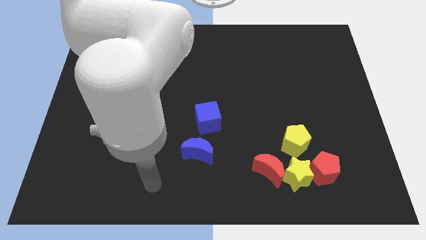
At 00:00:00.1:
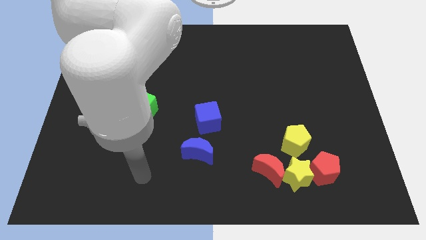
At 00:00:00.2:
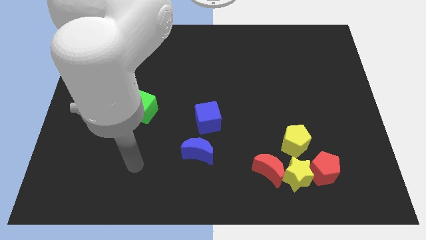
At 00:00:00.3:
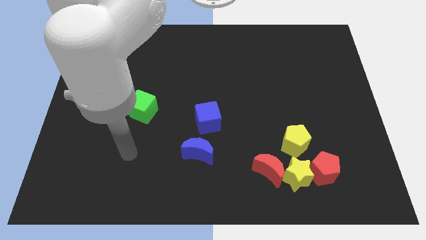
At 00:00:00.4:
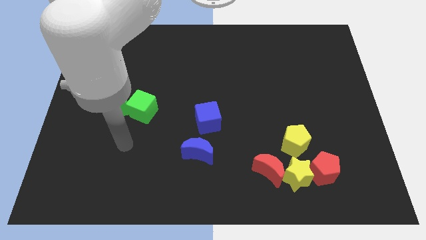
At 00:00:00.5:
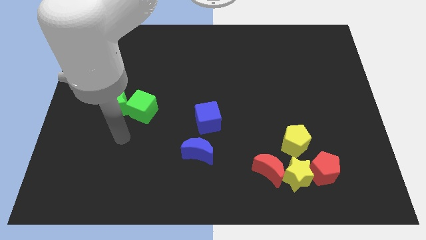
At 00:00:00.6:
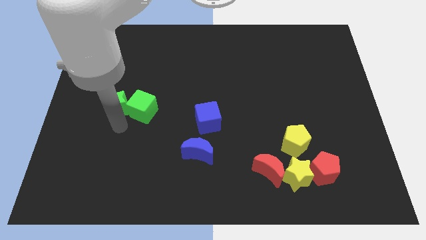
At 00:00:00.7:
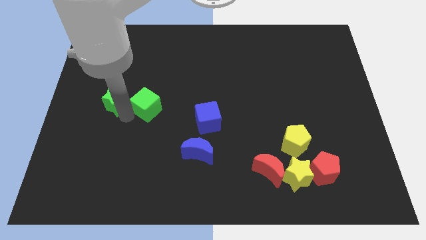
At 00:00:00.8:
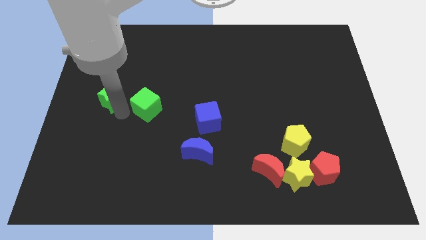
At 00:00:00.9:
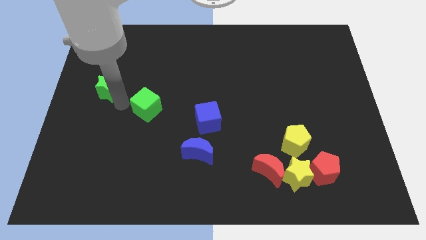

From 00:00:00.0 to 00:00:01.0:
separate the green cube from the green star

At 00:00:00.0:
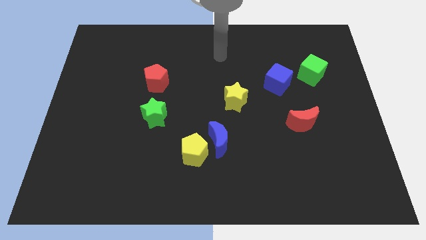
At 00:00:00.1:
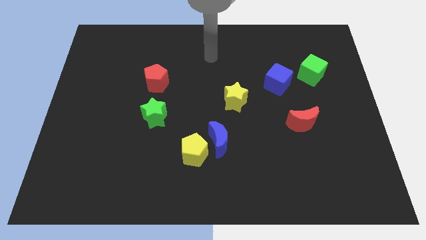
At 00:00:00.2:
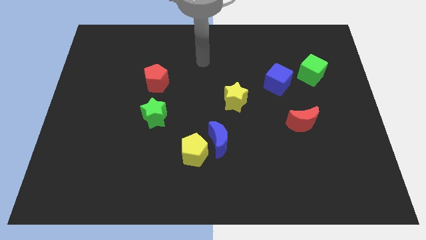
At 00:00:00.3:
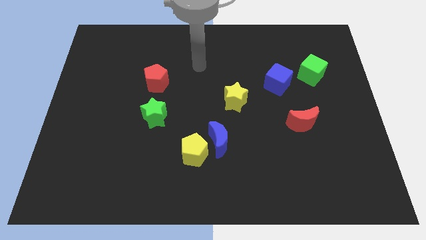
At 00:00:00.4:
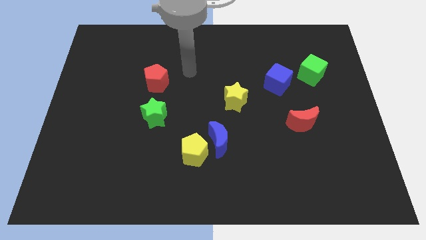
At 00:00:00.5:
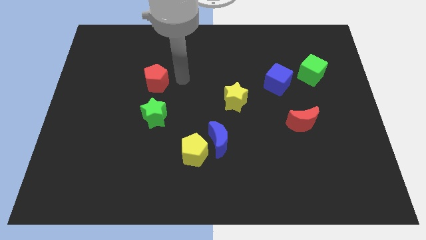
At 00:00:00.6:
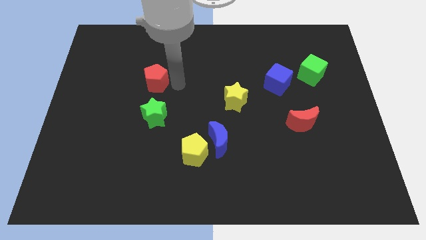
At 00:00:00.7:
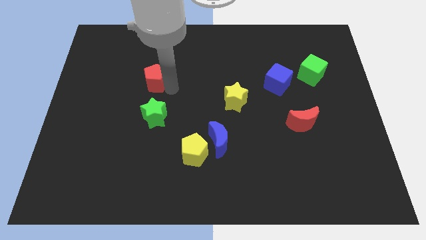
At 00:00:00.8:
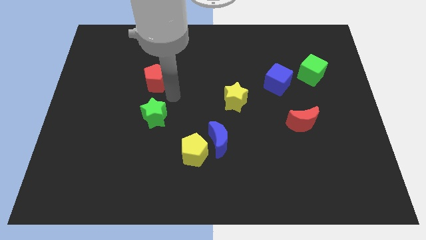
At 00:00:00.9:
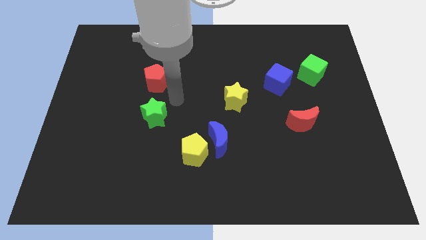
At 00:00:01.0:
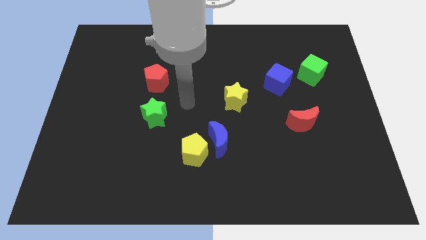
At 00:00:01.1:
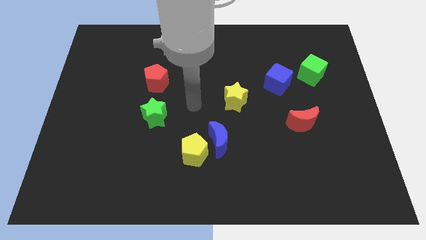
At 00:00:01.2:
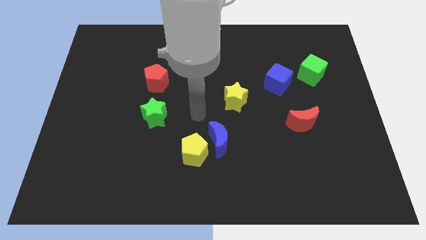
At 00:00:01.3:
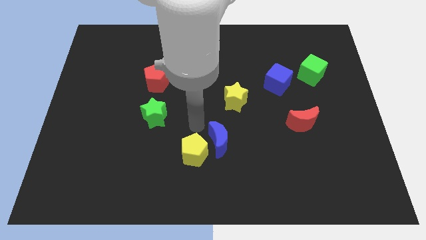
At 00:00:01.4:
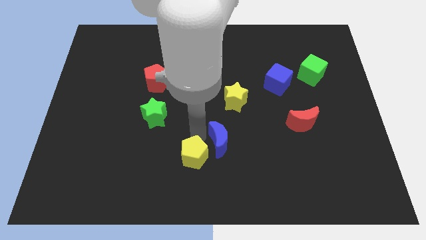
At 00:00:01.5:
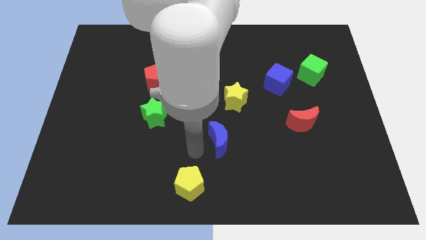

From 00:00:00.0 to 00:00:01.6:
pull the blue moon apart from the yellow pentagon

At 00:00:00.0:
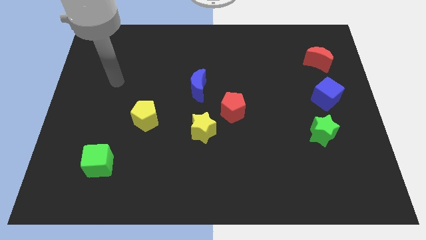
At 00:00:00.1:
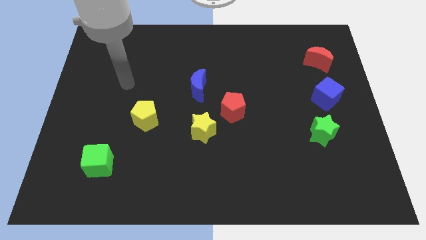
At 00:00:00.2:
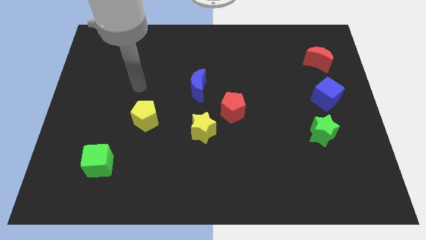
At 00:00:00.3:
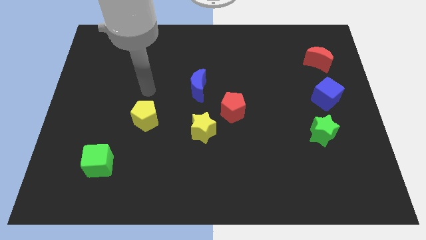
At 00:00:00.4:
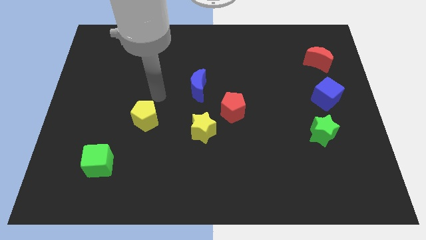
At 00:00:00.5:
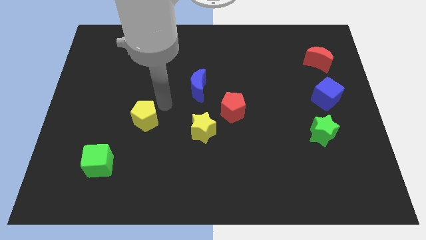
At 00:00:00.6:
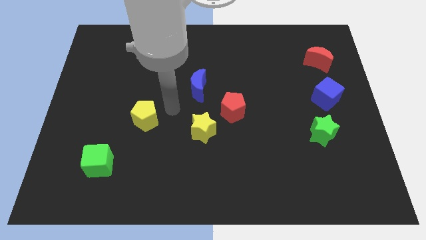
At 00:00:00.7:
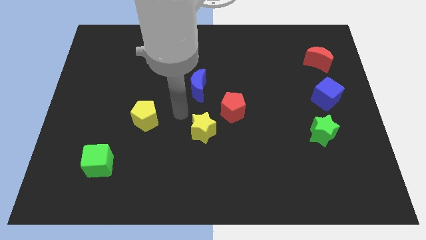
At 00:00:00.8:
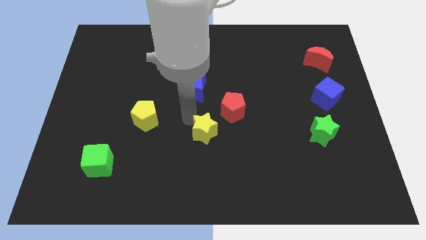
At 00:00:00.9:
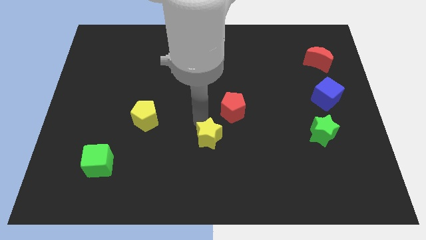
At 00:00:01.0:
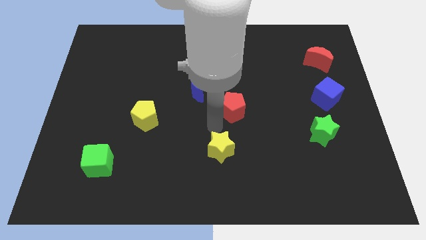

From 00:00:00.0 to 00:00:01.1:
move the red pentagon away from the yellow star

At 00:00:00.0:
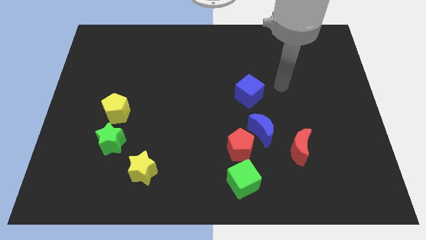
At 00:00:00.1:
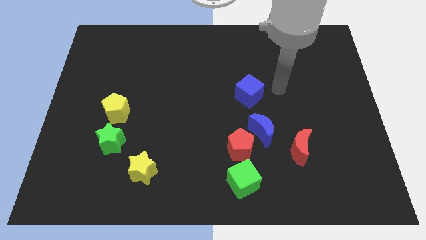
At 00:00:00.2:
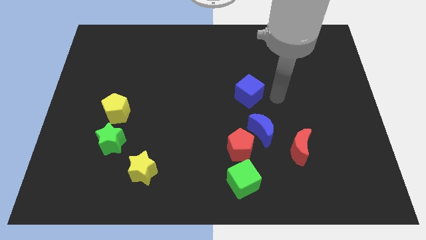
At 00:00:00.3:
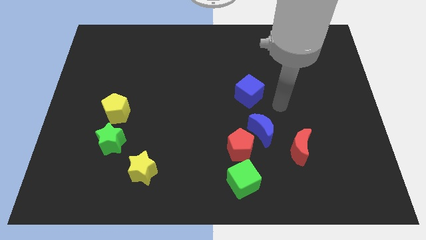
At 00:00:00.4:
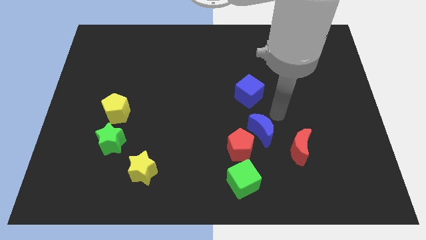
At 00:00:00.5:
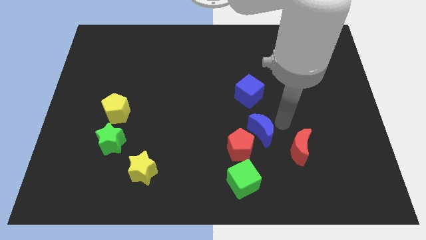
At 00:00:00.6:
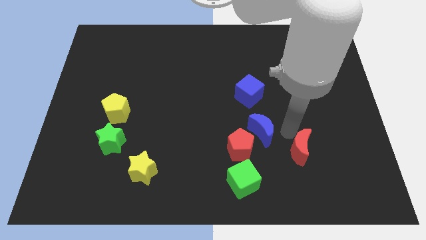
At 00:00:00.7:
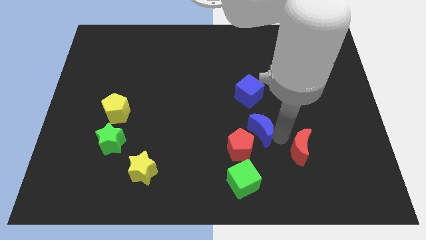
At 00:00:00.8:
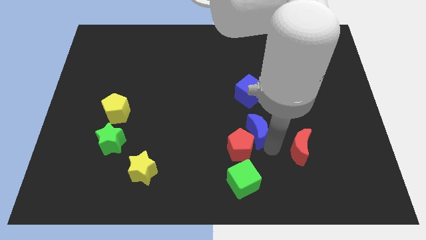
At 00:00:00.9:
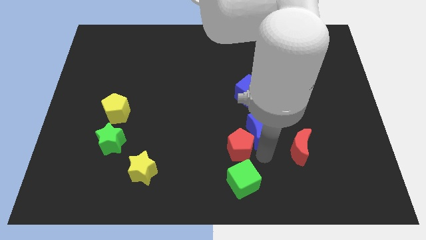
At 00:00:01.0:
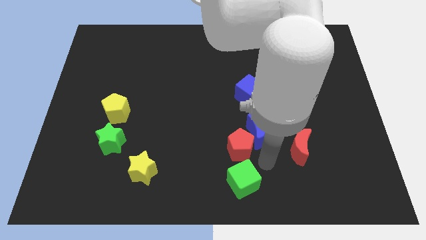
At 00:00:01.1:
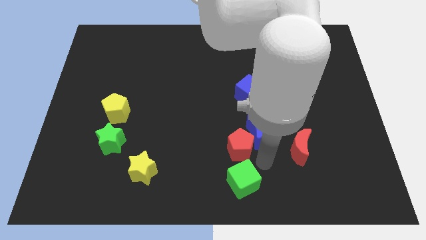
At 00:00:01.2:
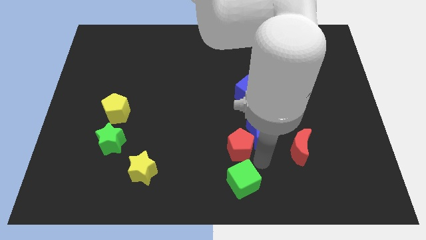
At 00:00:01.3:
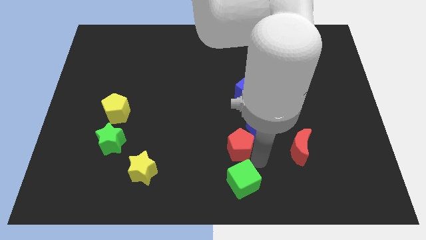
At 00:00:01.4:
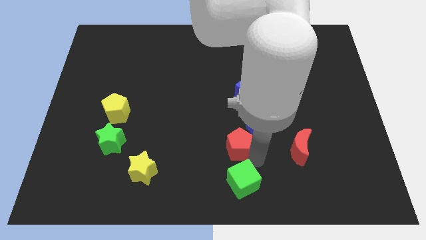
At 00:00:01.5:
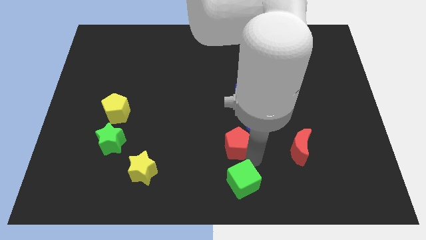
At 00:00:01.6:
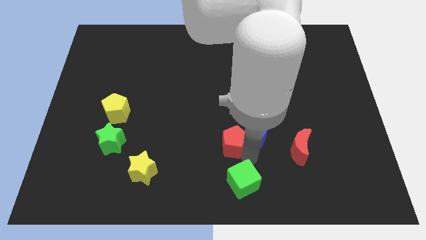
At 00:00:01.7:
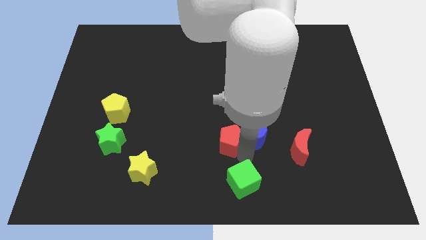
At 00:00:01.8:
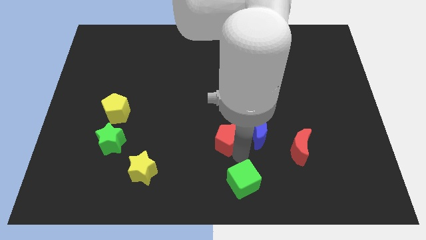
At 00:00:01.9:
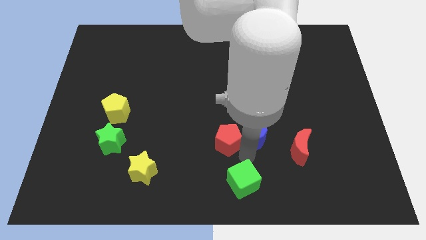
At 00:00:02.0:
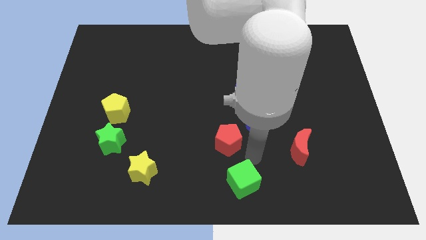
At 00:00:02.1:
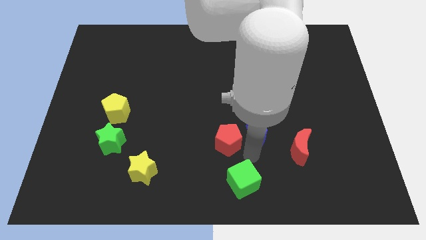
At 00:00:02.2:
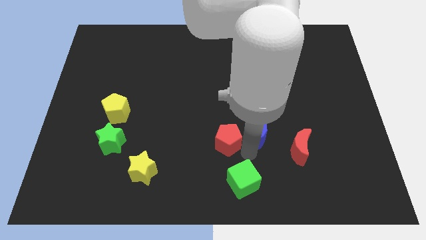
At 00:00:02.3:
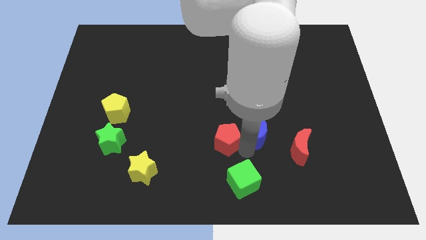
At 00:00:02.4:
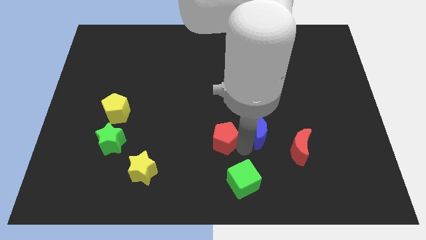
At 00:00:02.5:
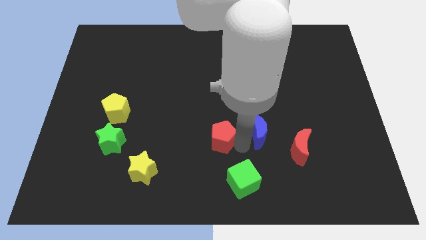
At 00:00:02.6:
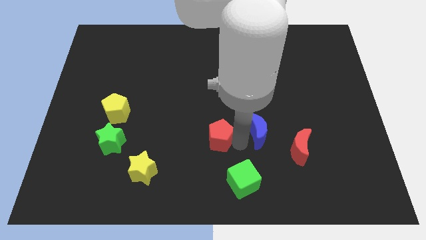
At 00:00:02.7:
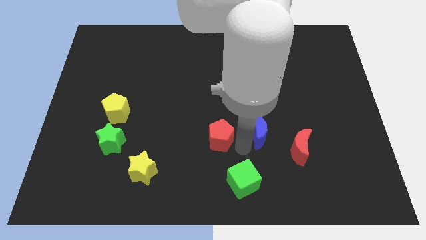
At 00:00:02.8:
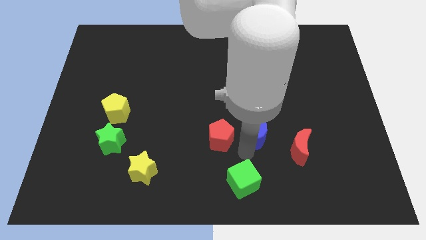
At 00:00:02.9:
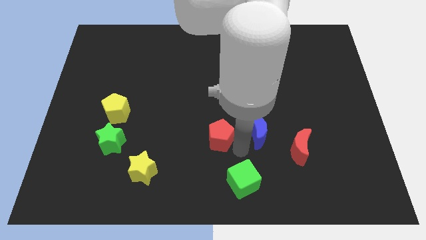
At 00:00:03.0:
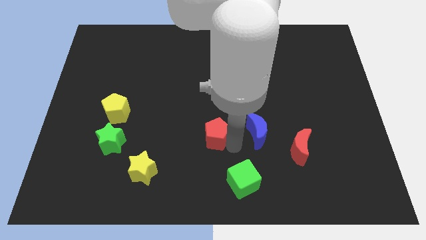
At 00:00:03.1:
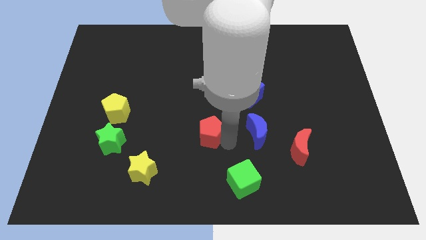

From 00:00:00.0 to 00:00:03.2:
move the red pentagon away from the blue moon and green cube

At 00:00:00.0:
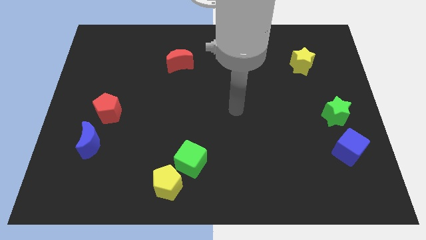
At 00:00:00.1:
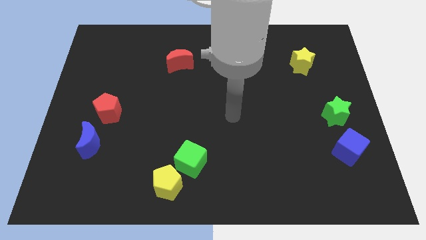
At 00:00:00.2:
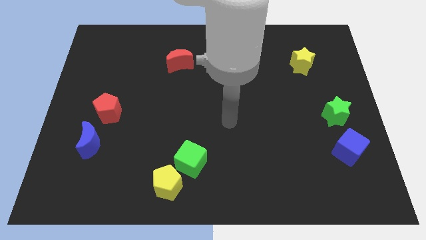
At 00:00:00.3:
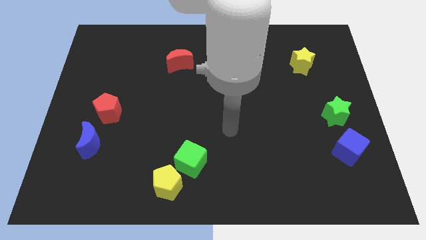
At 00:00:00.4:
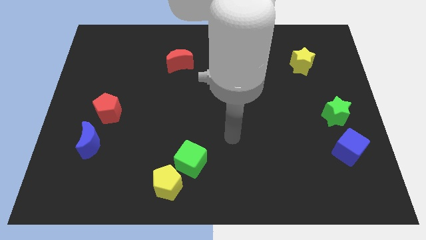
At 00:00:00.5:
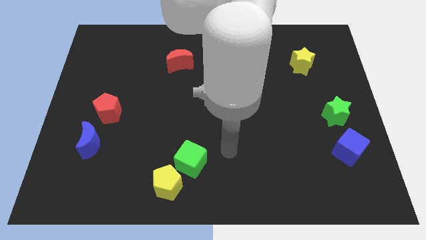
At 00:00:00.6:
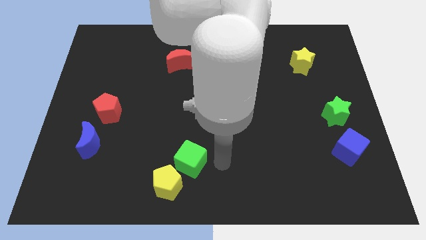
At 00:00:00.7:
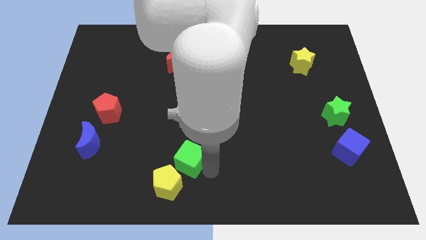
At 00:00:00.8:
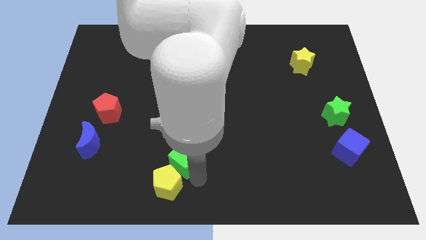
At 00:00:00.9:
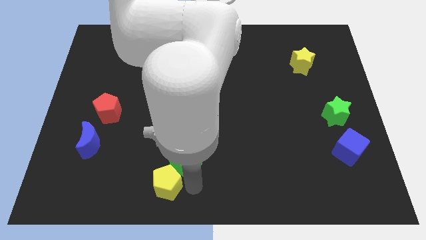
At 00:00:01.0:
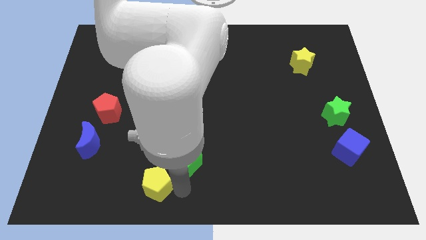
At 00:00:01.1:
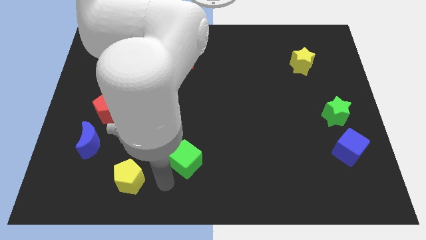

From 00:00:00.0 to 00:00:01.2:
move the green cube away from the yellow pentagon

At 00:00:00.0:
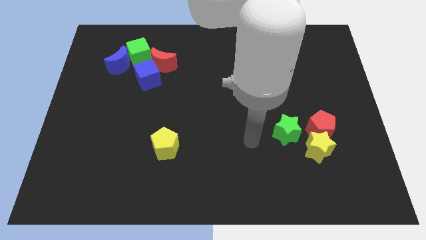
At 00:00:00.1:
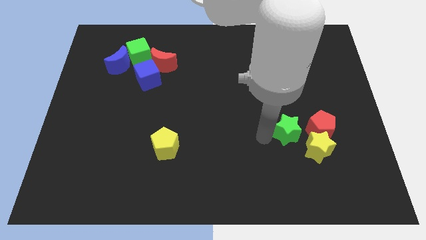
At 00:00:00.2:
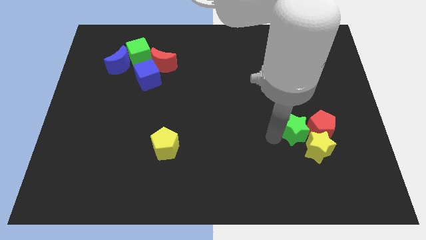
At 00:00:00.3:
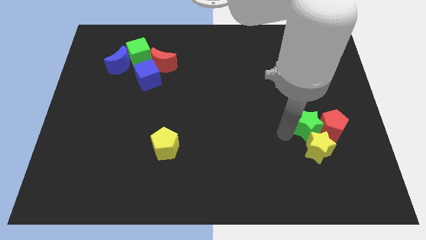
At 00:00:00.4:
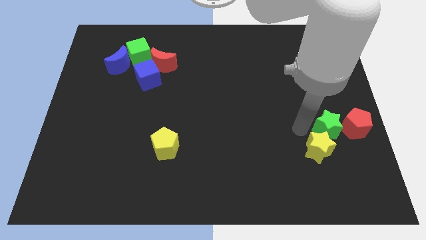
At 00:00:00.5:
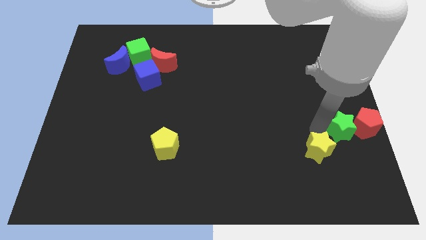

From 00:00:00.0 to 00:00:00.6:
move the yellow star away from the red pentagon and green star

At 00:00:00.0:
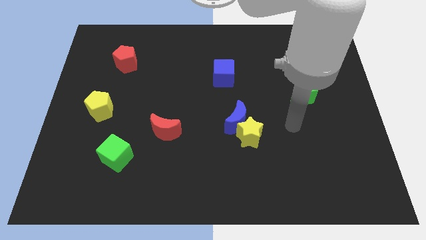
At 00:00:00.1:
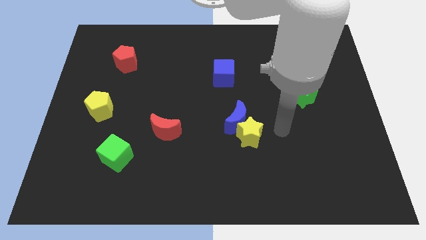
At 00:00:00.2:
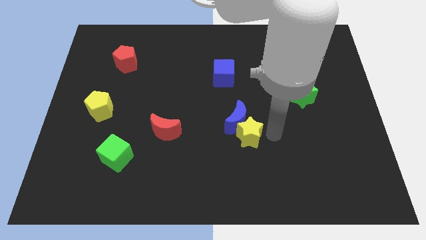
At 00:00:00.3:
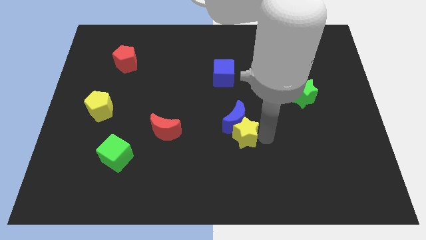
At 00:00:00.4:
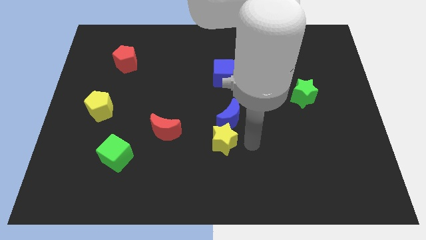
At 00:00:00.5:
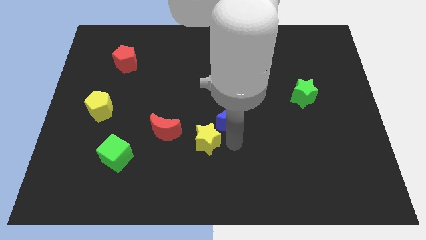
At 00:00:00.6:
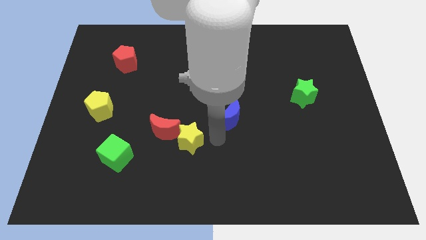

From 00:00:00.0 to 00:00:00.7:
pull the blue moon apart from the yellow star
